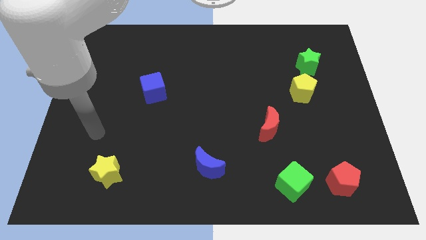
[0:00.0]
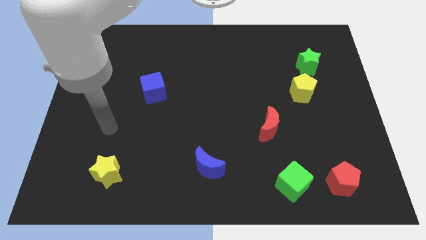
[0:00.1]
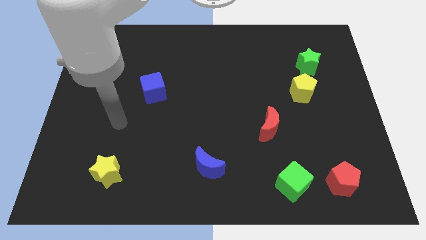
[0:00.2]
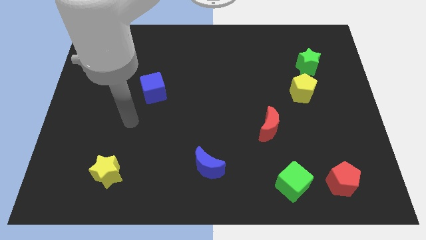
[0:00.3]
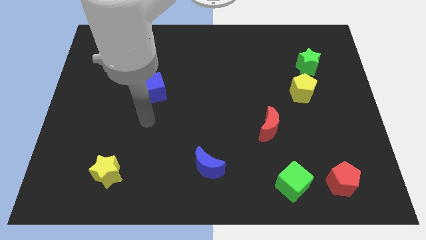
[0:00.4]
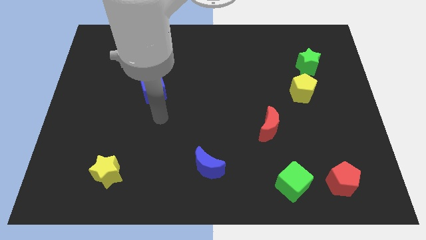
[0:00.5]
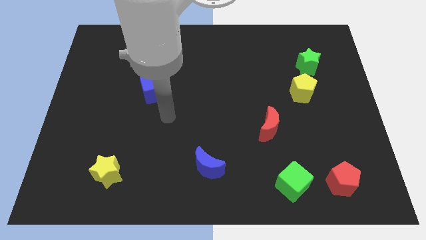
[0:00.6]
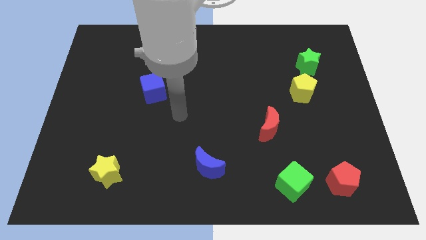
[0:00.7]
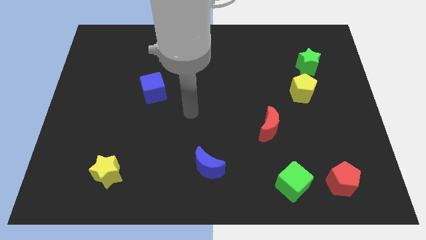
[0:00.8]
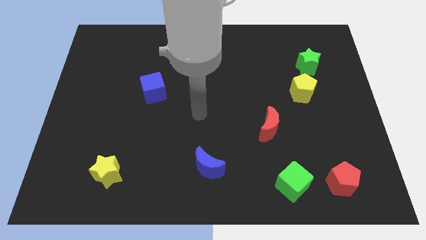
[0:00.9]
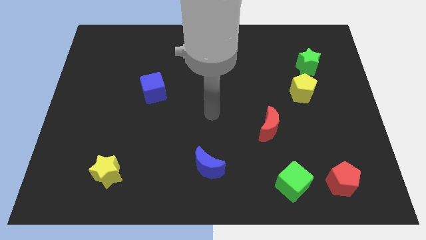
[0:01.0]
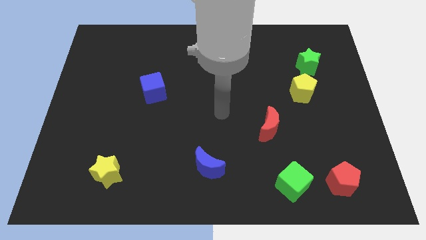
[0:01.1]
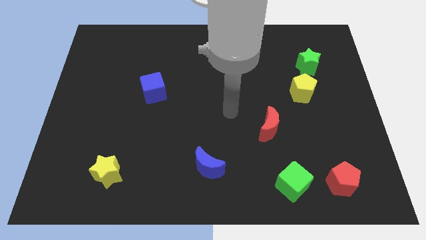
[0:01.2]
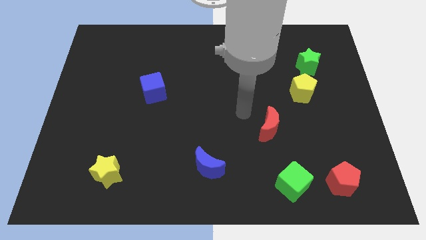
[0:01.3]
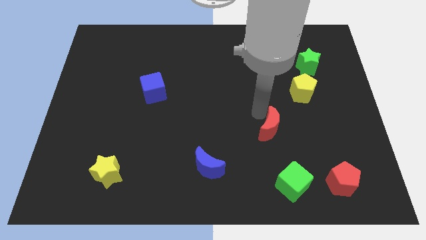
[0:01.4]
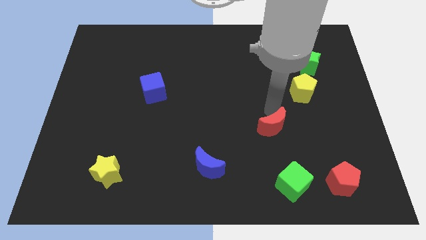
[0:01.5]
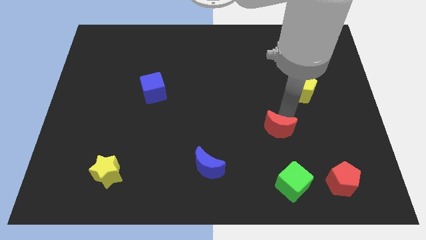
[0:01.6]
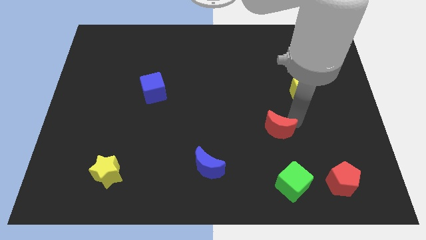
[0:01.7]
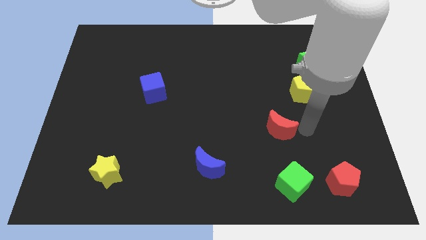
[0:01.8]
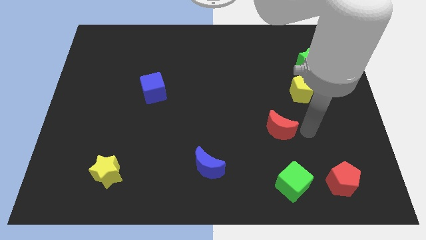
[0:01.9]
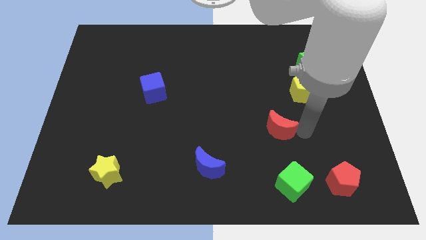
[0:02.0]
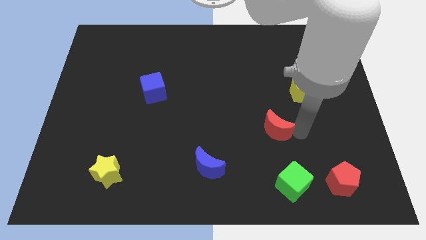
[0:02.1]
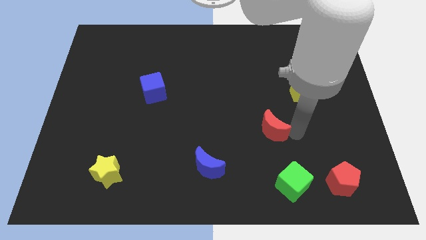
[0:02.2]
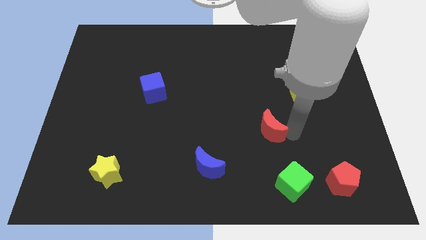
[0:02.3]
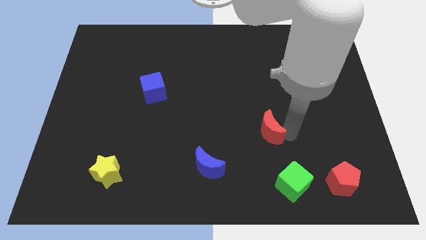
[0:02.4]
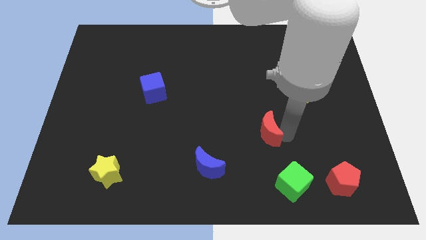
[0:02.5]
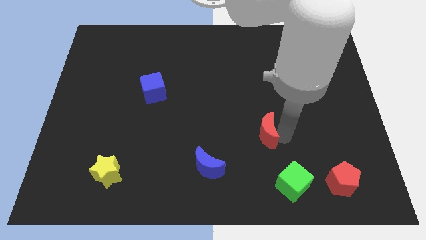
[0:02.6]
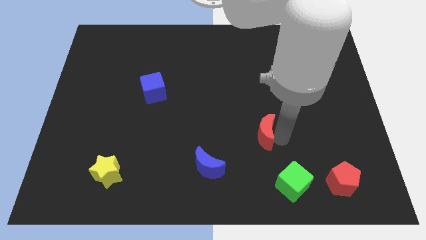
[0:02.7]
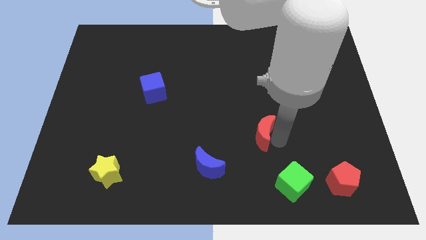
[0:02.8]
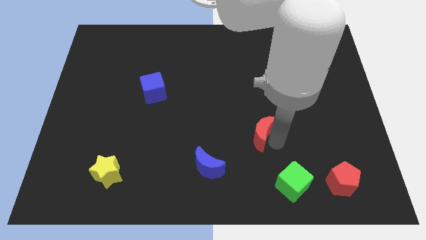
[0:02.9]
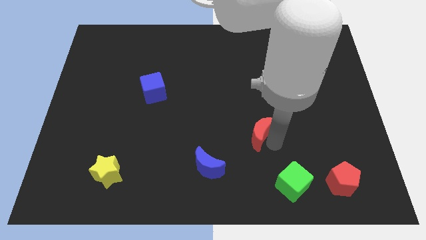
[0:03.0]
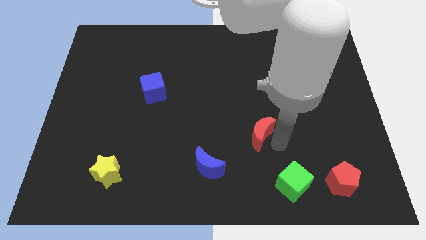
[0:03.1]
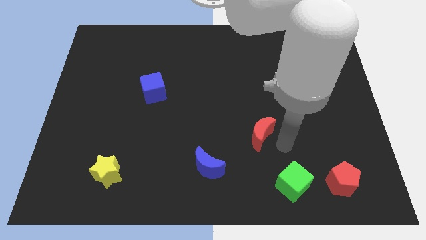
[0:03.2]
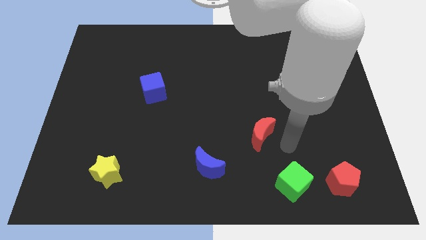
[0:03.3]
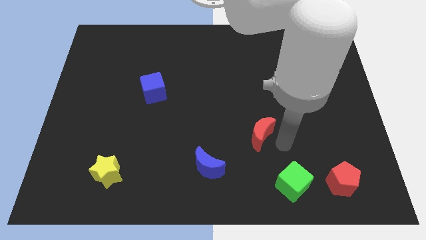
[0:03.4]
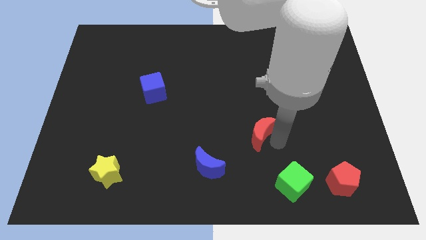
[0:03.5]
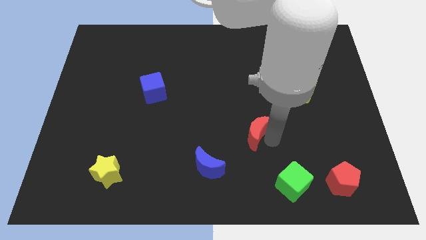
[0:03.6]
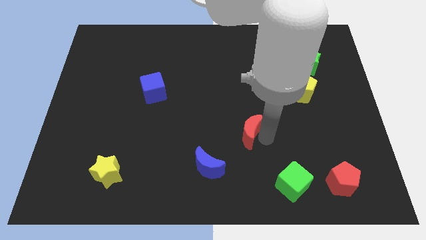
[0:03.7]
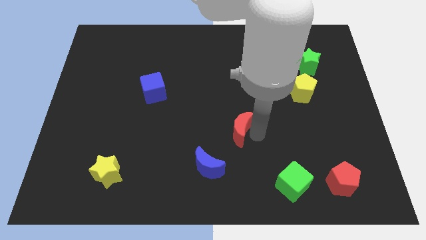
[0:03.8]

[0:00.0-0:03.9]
slightly slide the red moon to the left

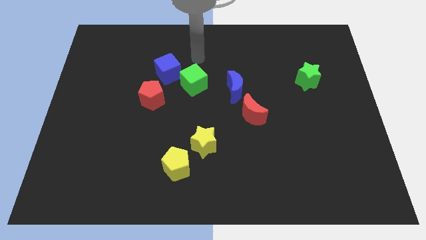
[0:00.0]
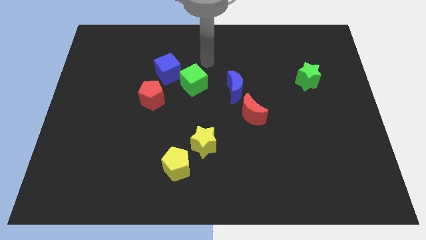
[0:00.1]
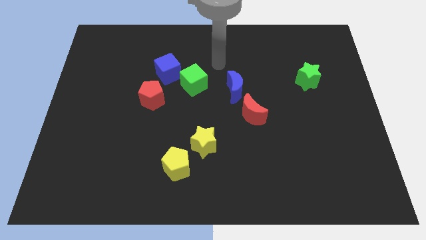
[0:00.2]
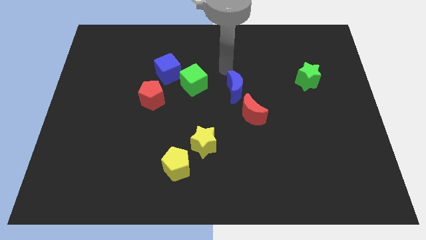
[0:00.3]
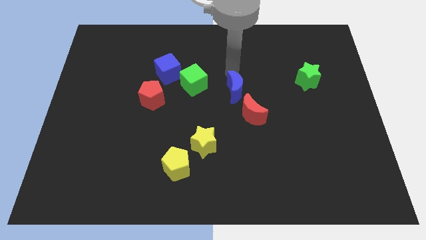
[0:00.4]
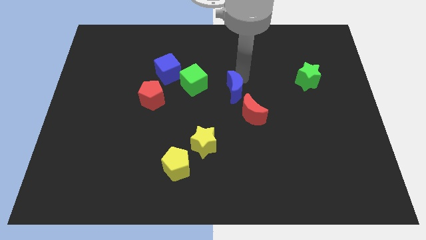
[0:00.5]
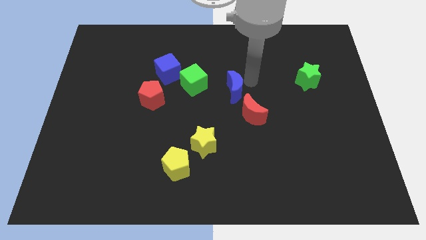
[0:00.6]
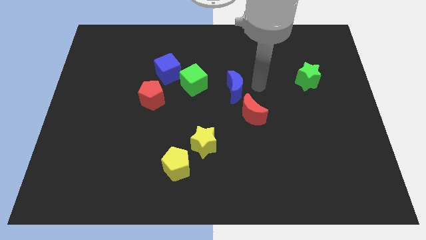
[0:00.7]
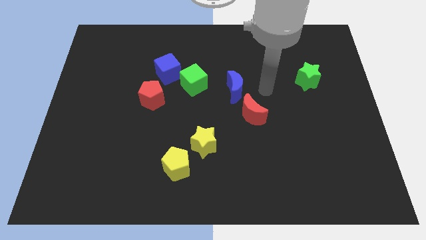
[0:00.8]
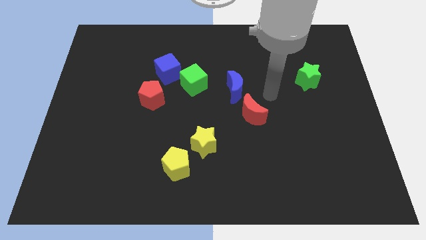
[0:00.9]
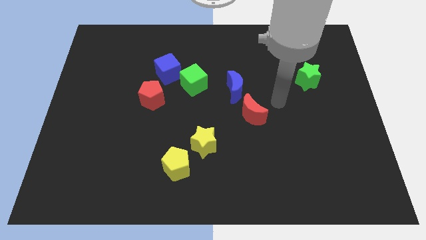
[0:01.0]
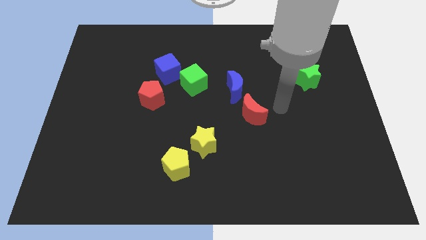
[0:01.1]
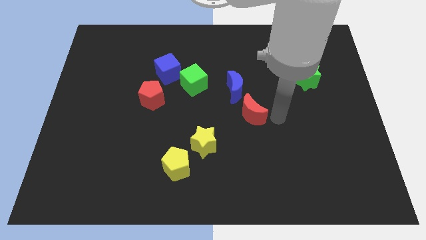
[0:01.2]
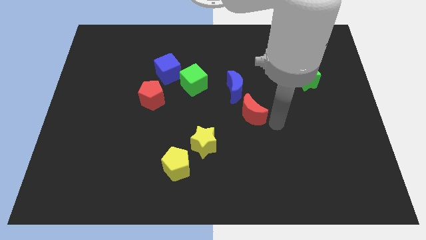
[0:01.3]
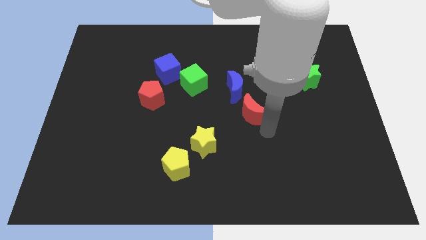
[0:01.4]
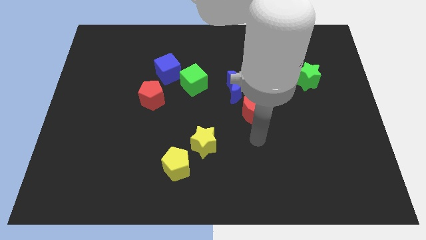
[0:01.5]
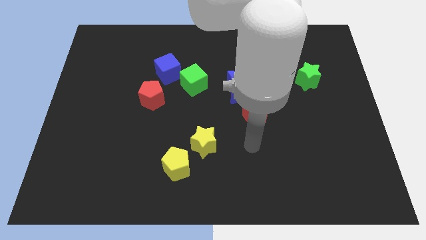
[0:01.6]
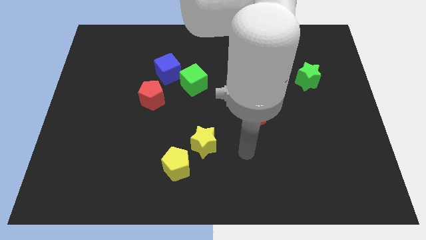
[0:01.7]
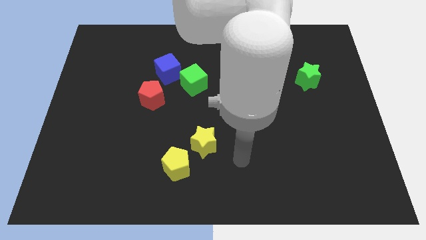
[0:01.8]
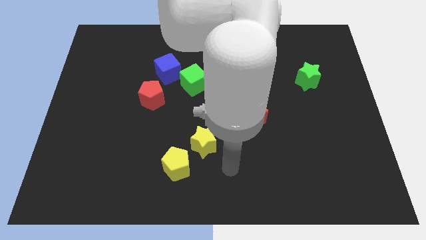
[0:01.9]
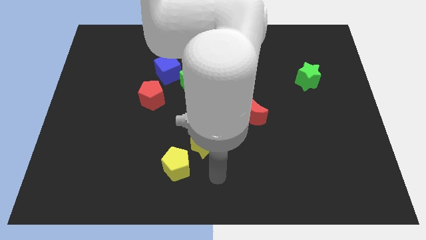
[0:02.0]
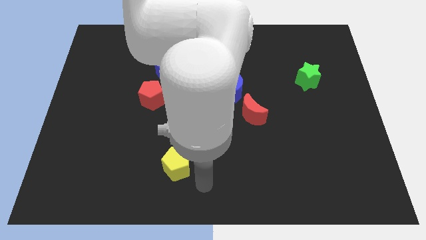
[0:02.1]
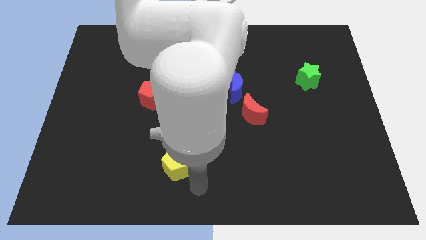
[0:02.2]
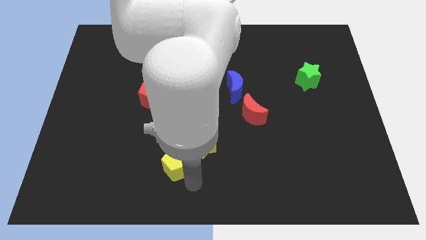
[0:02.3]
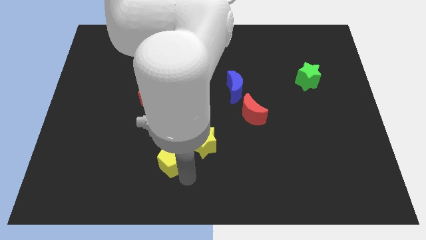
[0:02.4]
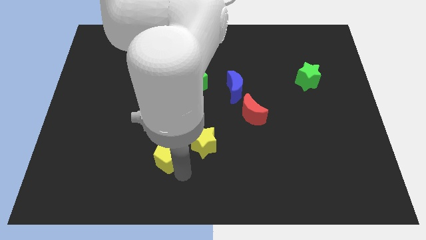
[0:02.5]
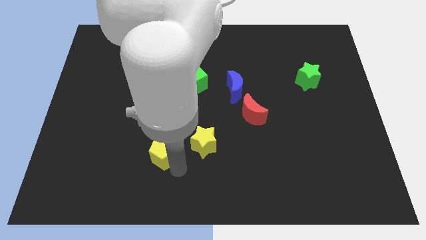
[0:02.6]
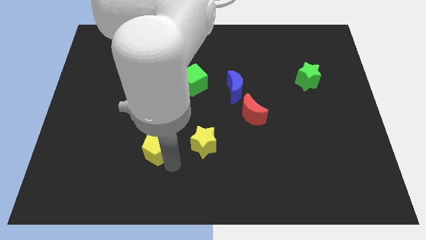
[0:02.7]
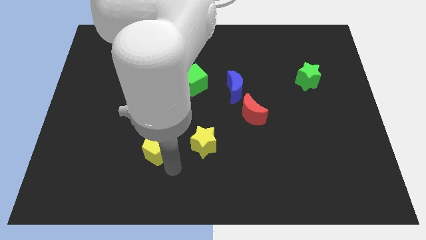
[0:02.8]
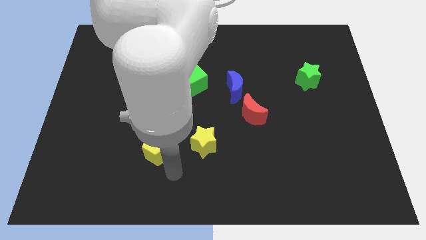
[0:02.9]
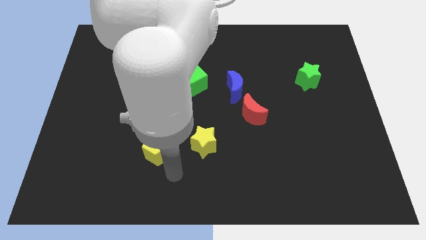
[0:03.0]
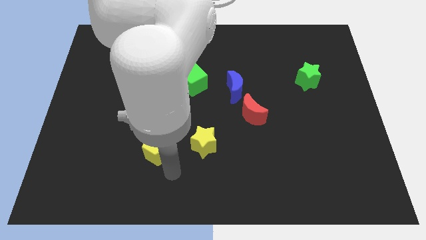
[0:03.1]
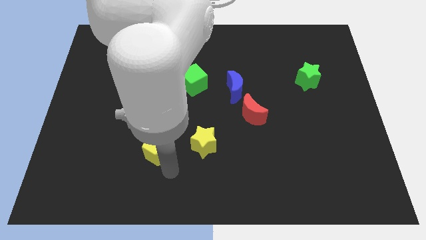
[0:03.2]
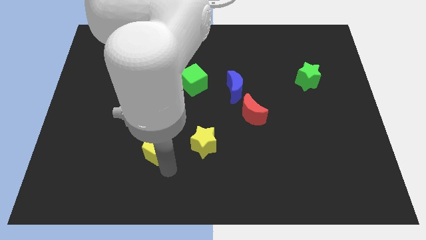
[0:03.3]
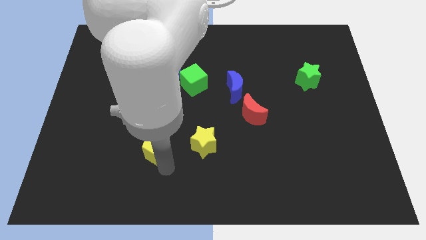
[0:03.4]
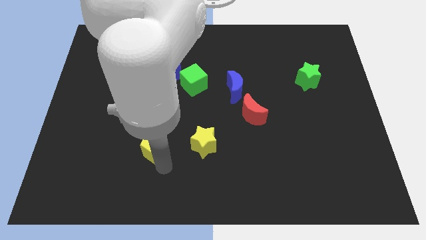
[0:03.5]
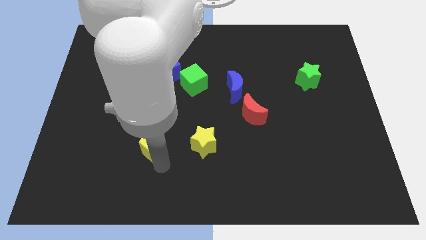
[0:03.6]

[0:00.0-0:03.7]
slide the yellow pentagon a little upwards and left

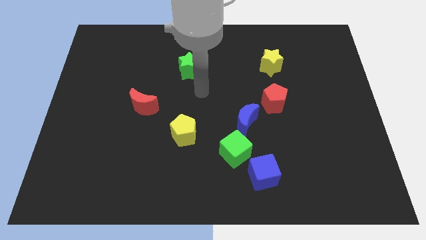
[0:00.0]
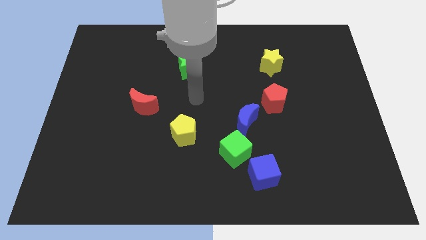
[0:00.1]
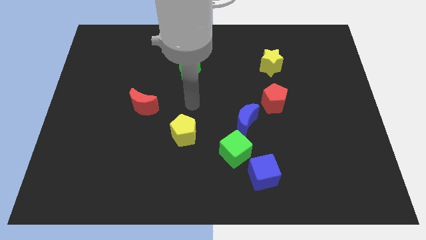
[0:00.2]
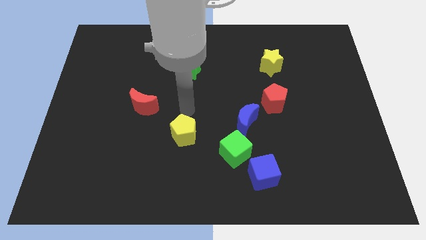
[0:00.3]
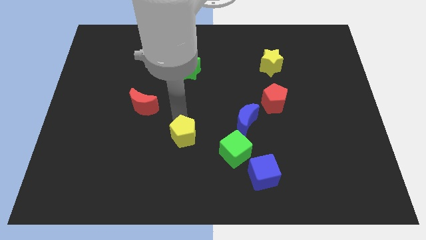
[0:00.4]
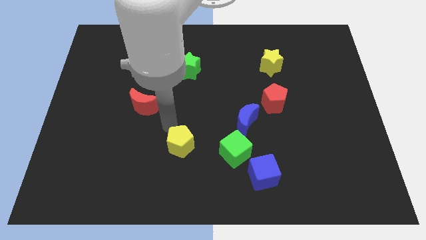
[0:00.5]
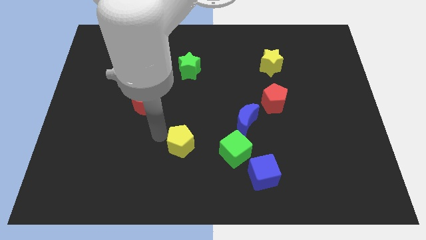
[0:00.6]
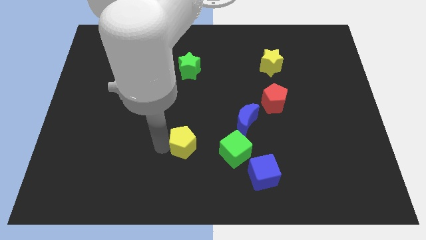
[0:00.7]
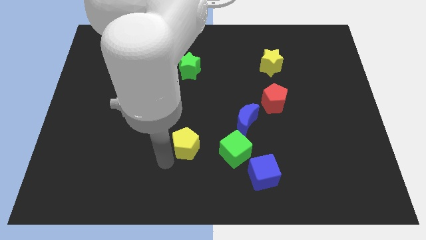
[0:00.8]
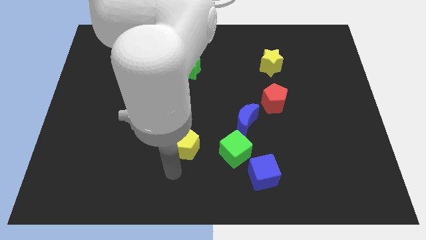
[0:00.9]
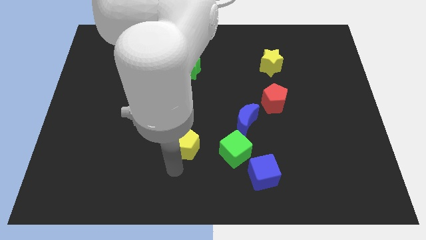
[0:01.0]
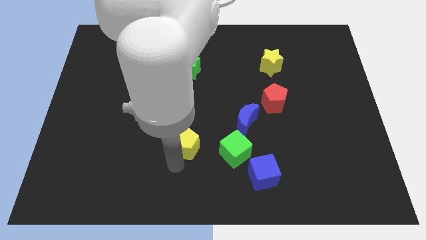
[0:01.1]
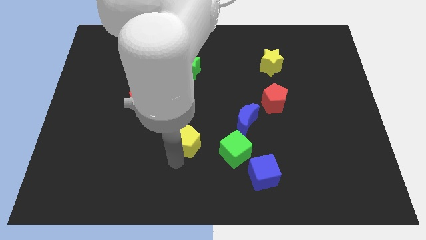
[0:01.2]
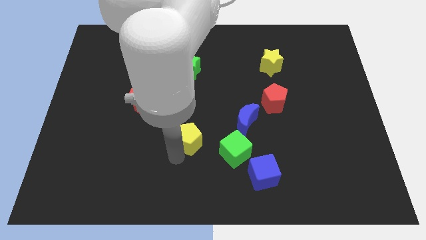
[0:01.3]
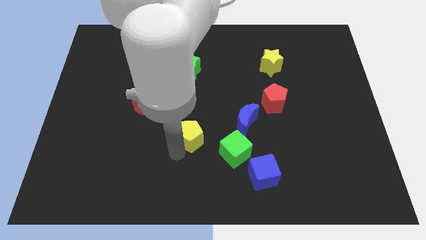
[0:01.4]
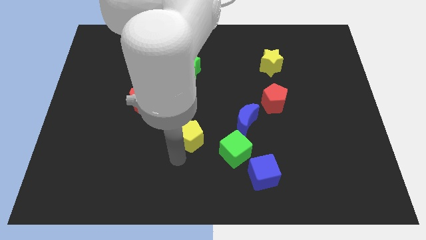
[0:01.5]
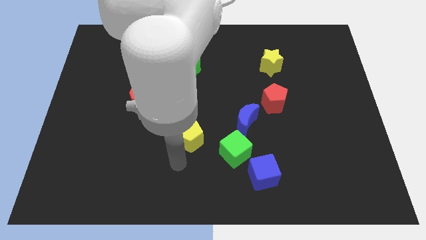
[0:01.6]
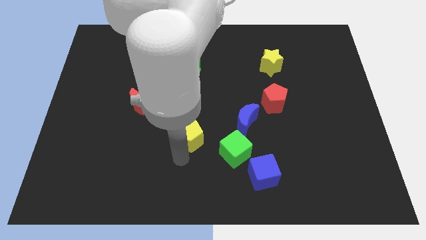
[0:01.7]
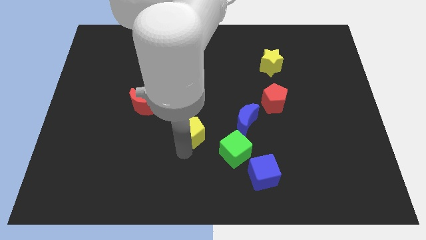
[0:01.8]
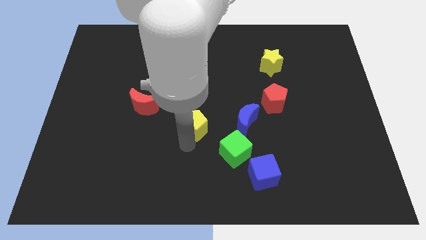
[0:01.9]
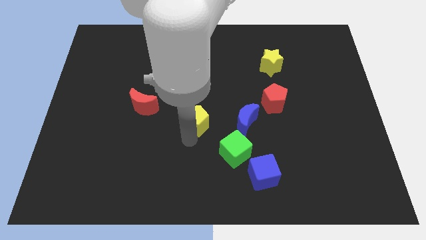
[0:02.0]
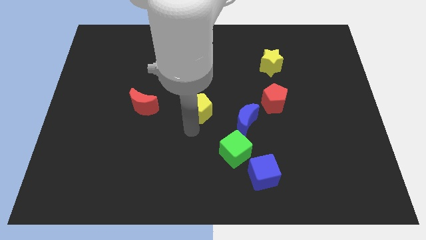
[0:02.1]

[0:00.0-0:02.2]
move the yellow pentagon upwards and right a bit
